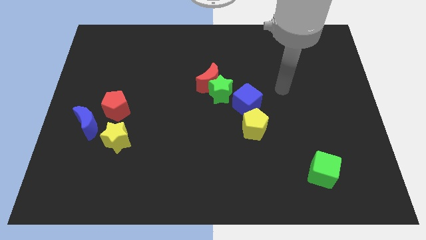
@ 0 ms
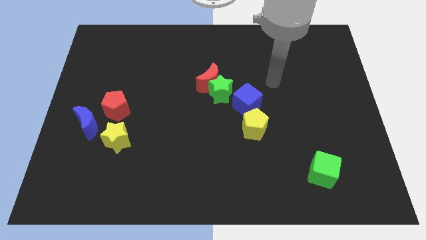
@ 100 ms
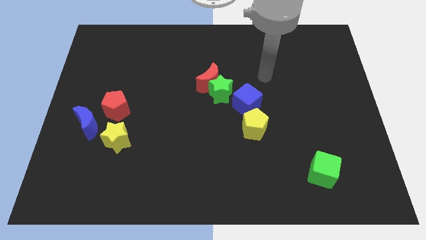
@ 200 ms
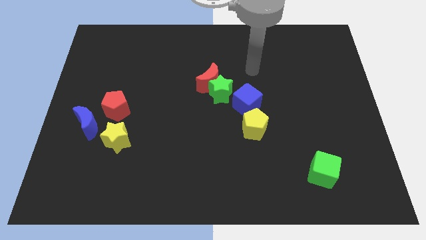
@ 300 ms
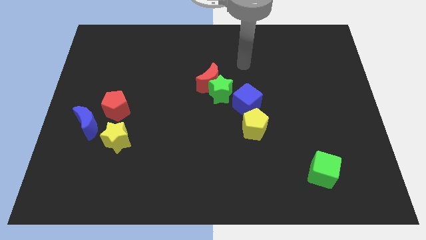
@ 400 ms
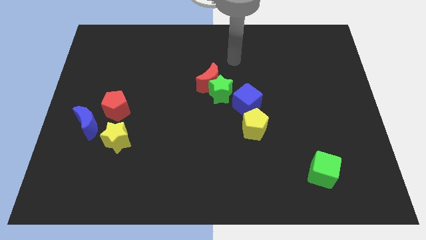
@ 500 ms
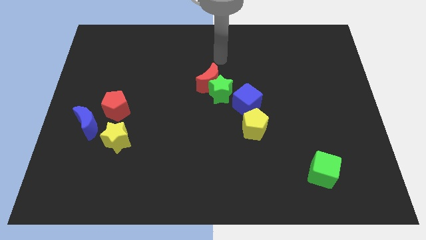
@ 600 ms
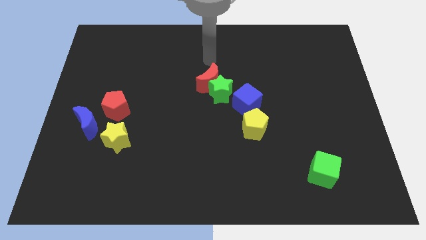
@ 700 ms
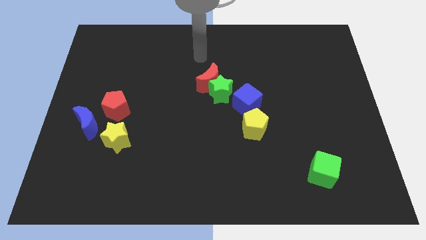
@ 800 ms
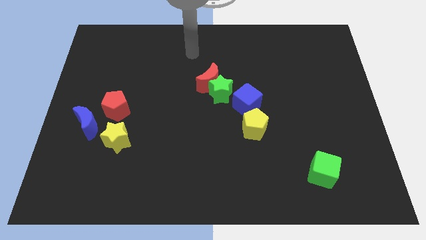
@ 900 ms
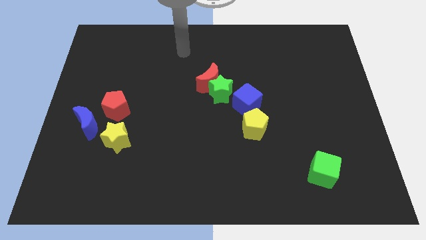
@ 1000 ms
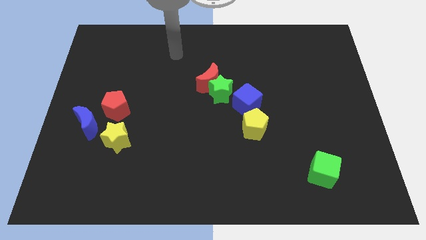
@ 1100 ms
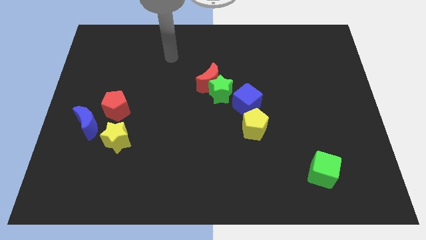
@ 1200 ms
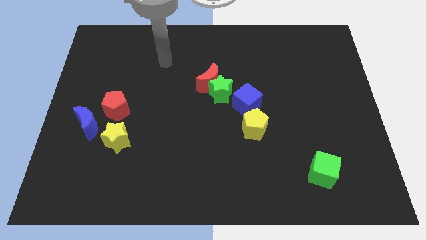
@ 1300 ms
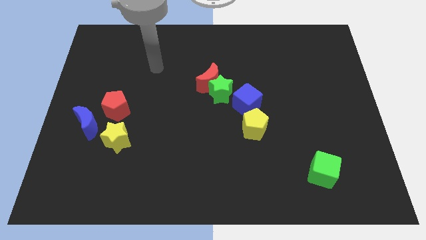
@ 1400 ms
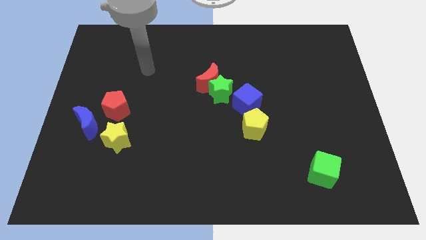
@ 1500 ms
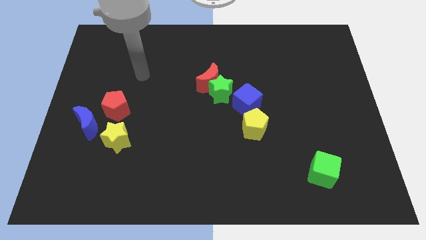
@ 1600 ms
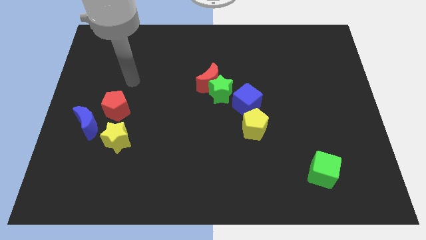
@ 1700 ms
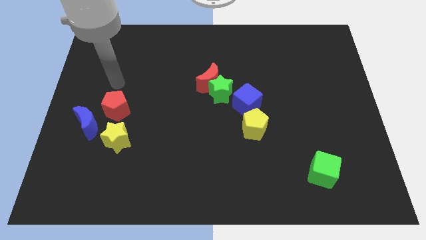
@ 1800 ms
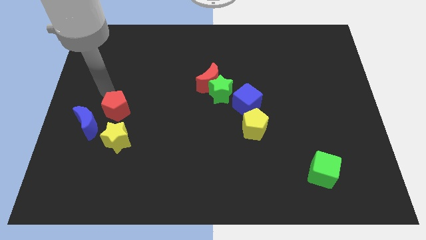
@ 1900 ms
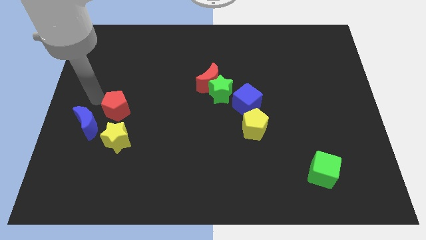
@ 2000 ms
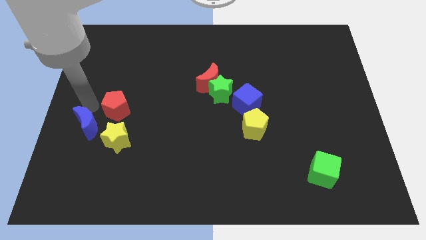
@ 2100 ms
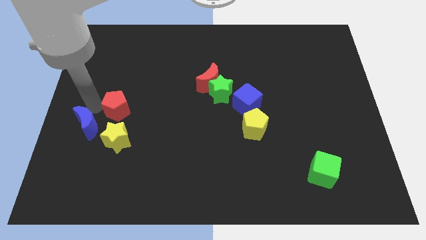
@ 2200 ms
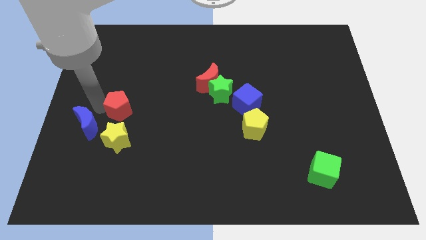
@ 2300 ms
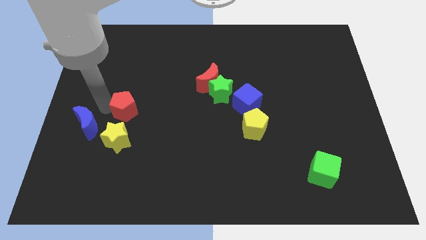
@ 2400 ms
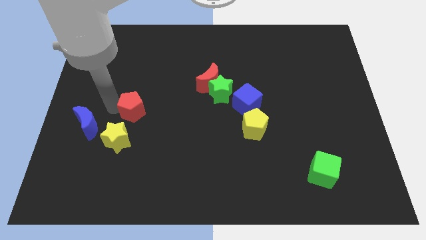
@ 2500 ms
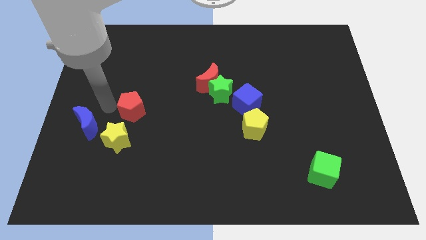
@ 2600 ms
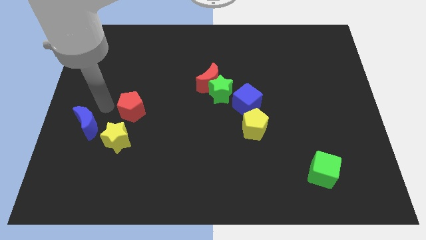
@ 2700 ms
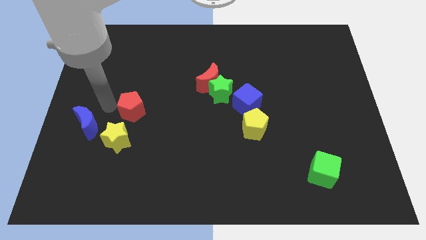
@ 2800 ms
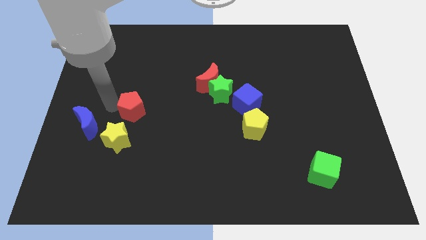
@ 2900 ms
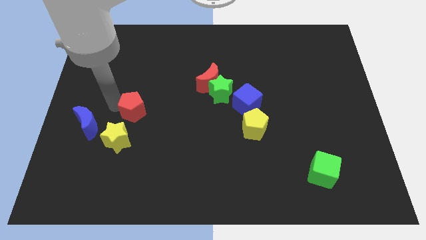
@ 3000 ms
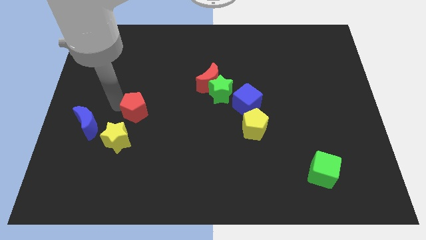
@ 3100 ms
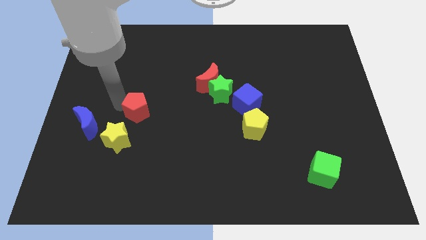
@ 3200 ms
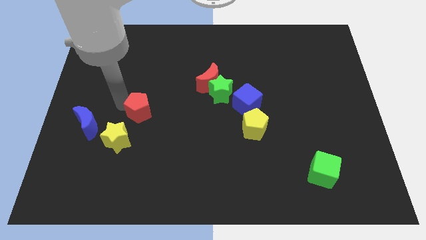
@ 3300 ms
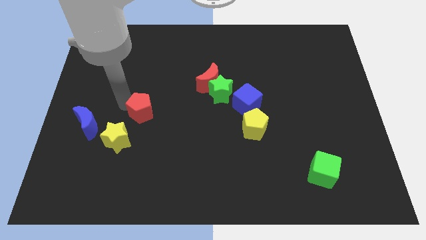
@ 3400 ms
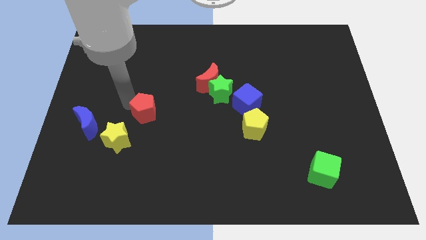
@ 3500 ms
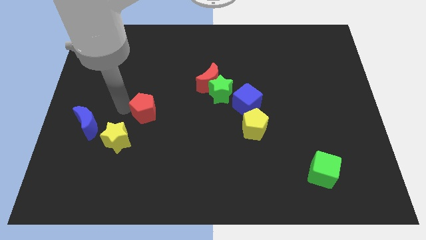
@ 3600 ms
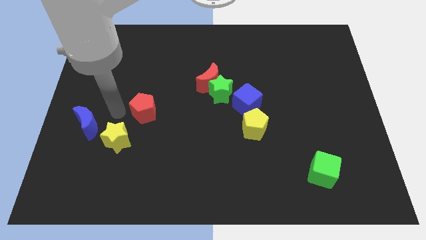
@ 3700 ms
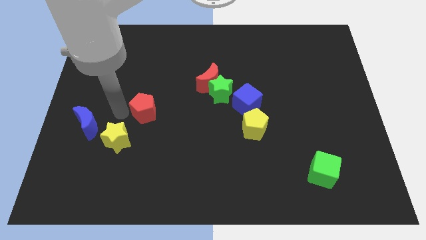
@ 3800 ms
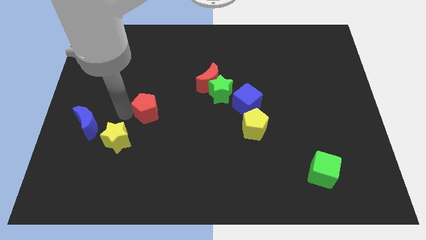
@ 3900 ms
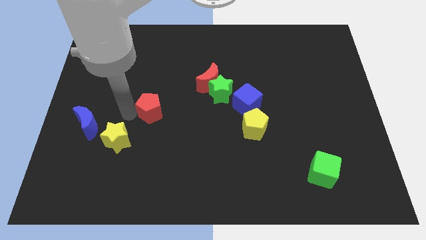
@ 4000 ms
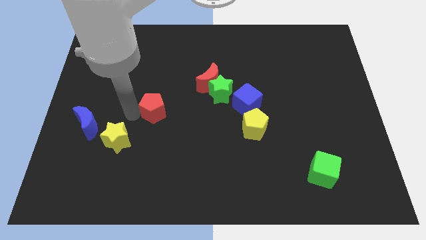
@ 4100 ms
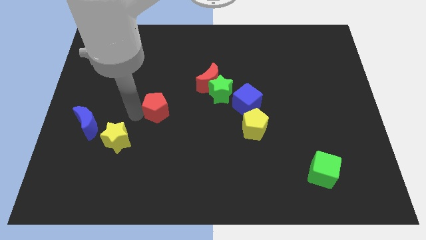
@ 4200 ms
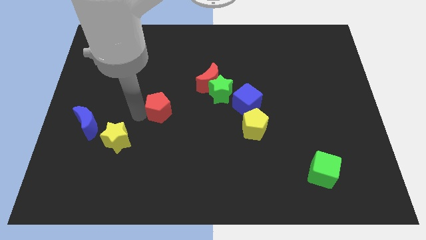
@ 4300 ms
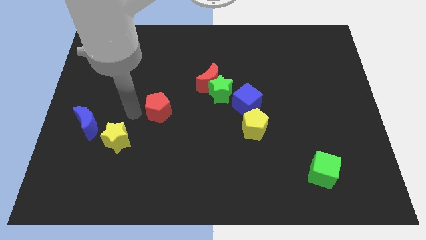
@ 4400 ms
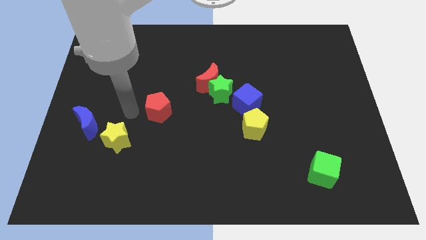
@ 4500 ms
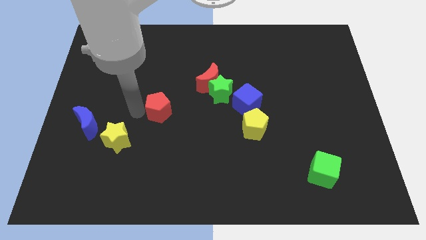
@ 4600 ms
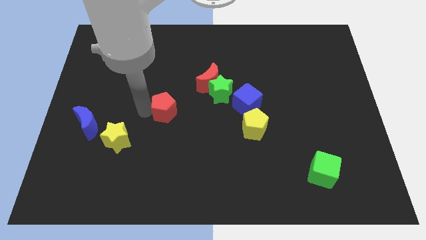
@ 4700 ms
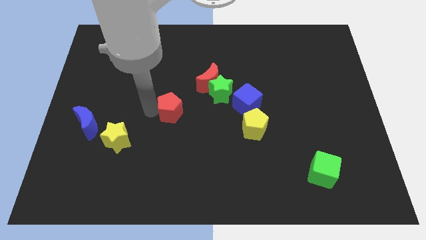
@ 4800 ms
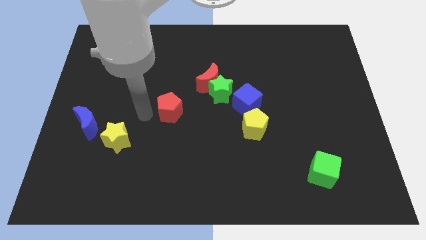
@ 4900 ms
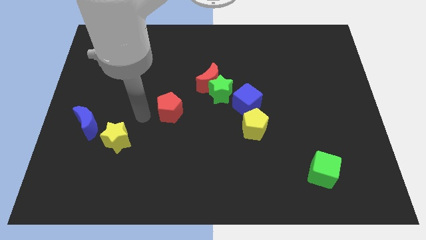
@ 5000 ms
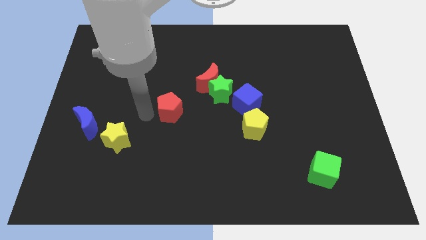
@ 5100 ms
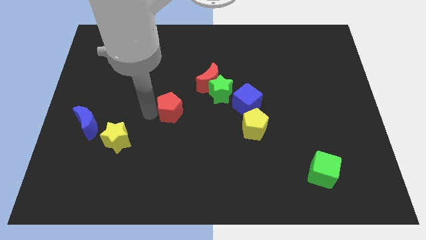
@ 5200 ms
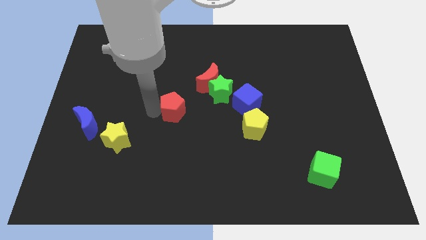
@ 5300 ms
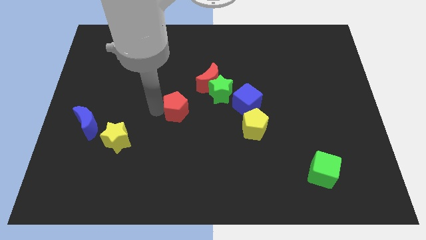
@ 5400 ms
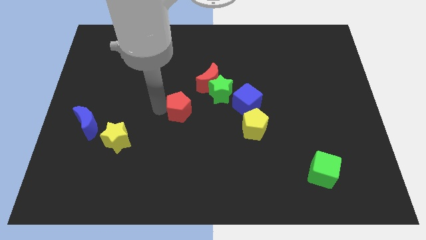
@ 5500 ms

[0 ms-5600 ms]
move the red pentagon just left of the blue cube
